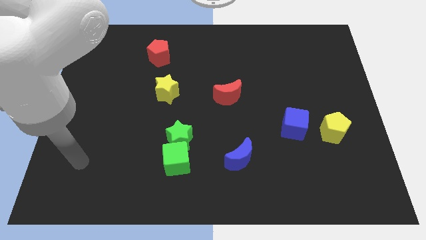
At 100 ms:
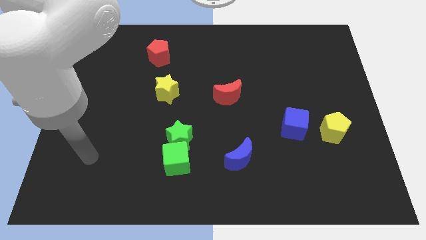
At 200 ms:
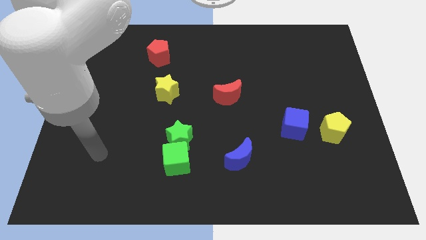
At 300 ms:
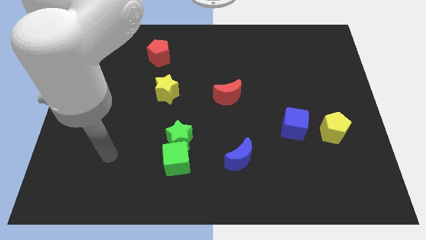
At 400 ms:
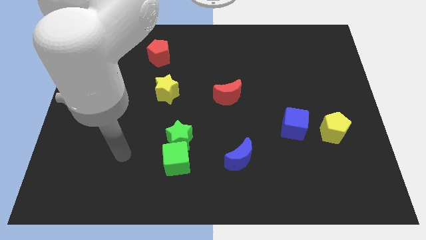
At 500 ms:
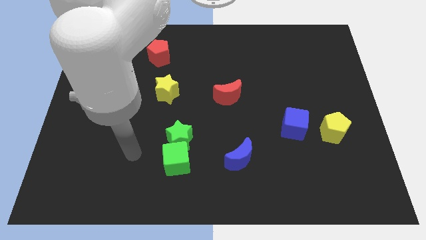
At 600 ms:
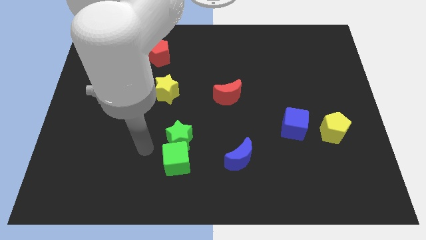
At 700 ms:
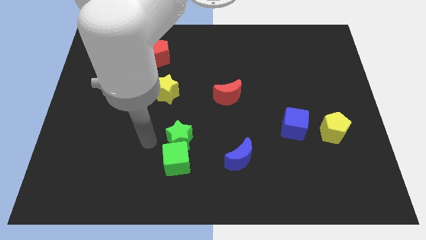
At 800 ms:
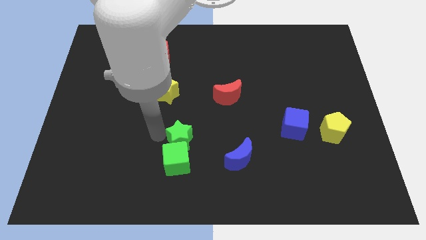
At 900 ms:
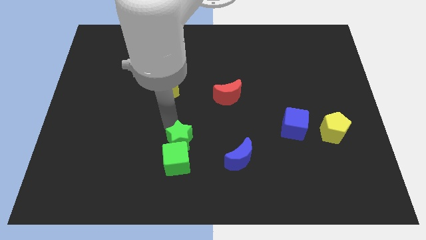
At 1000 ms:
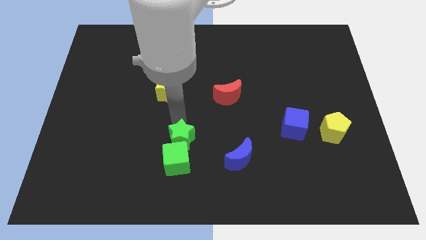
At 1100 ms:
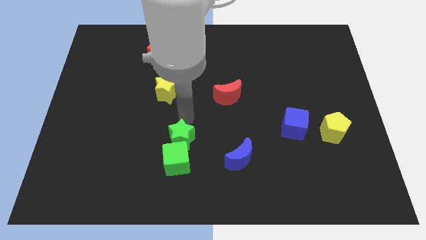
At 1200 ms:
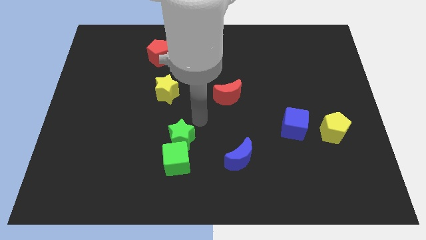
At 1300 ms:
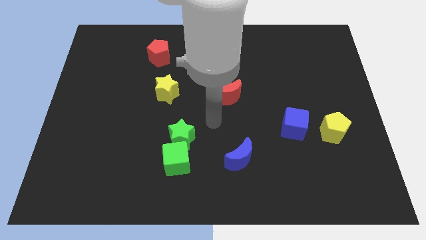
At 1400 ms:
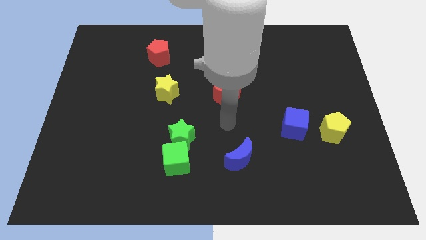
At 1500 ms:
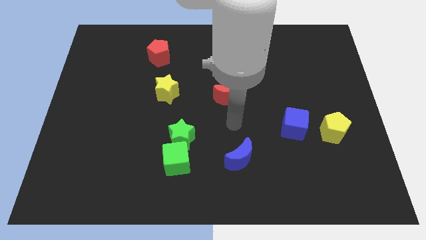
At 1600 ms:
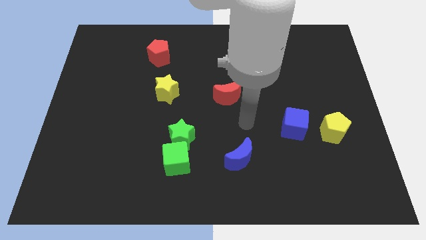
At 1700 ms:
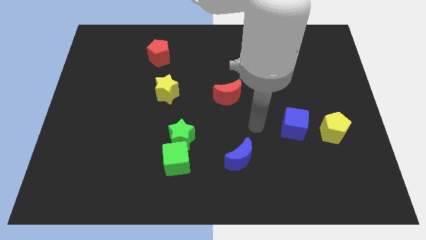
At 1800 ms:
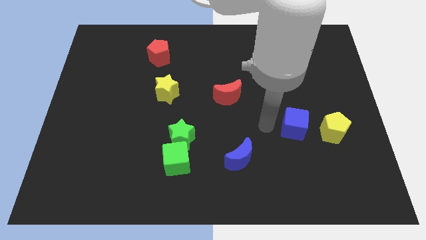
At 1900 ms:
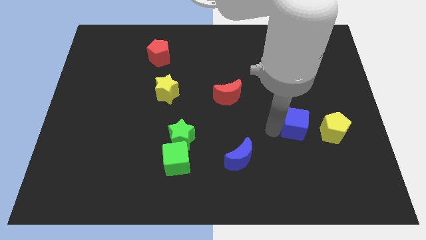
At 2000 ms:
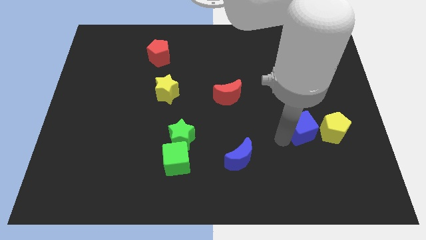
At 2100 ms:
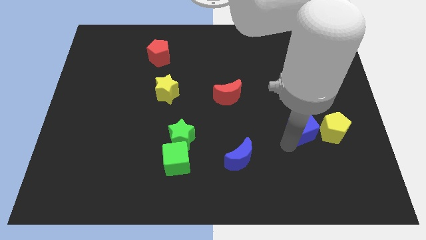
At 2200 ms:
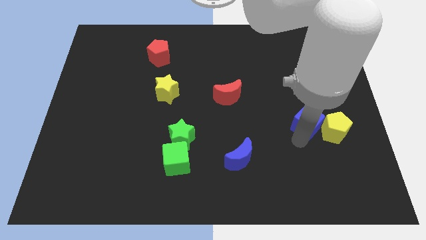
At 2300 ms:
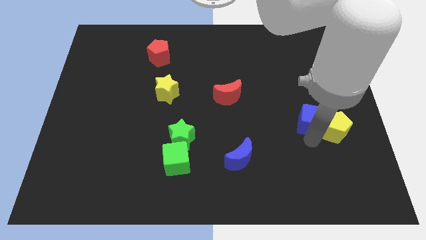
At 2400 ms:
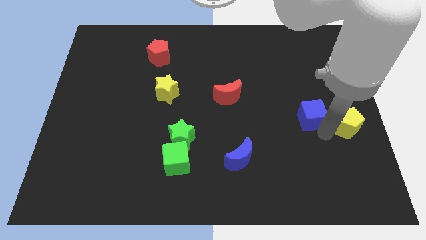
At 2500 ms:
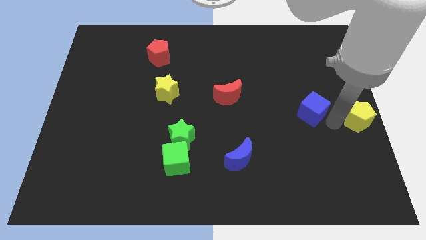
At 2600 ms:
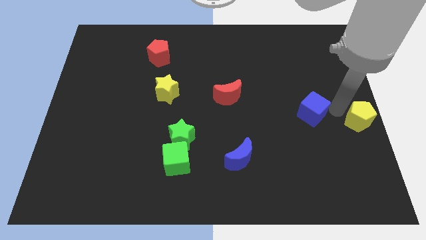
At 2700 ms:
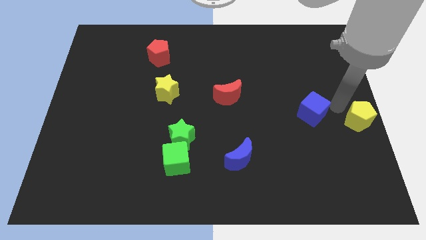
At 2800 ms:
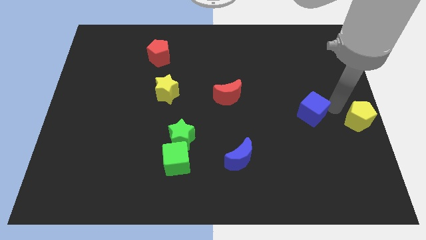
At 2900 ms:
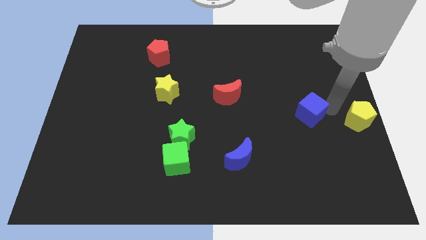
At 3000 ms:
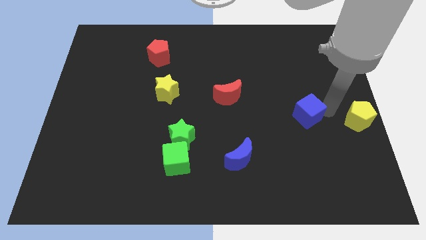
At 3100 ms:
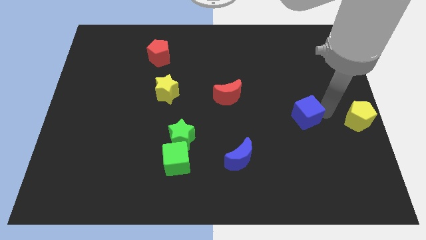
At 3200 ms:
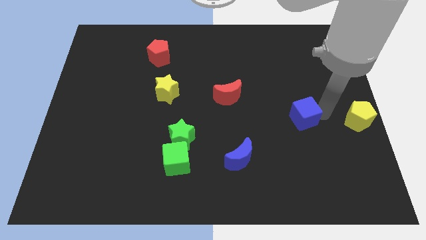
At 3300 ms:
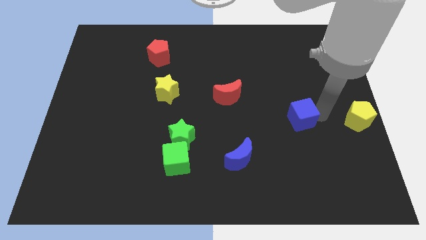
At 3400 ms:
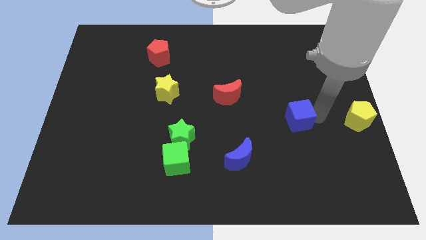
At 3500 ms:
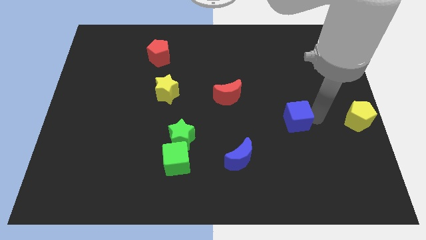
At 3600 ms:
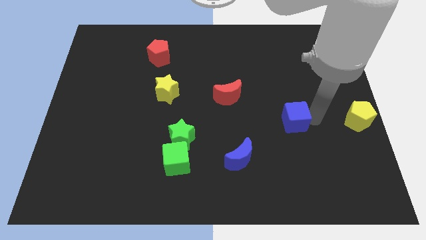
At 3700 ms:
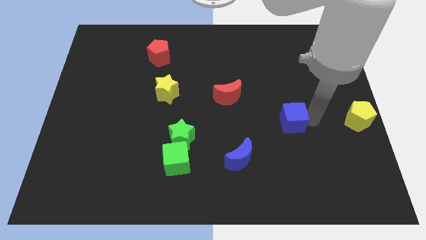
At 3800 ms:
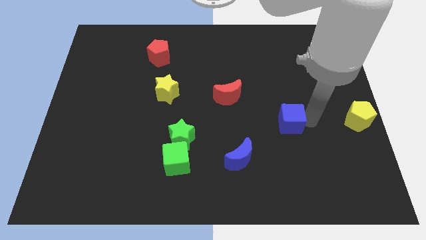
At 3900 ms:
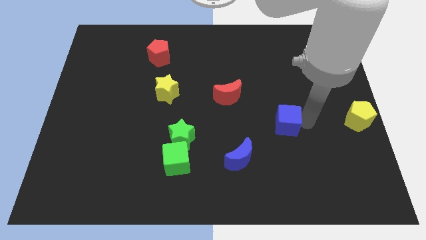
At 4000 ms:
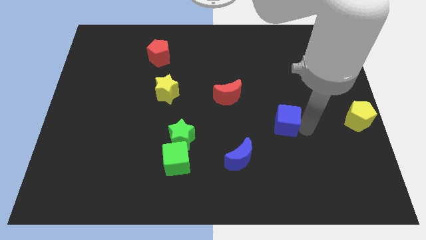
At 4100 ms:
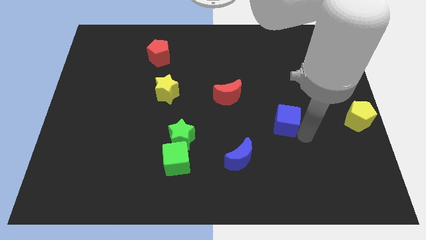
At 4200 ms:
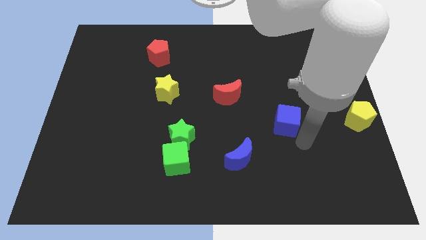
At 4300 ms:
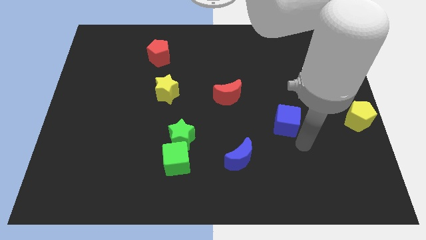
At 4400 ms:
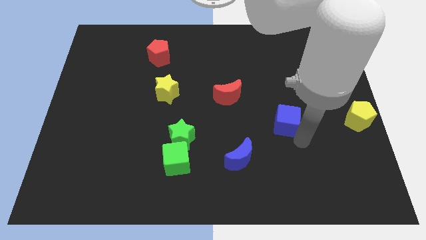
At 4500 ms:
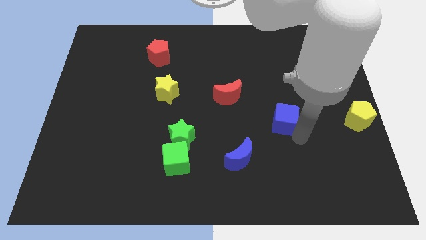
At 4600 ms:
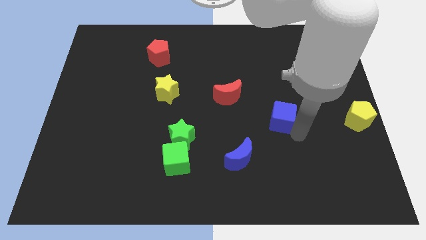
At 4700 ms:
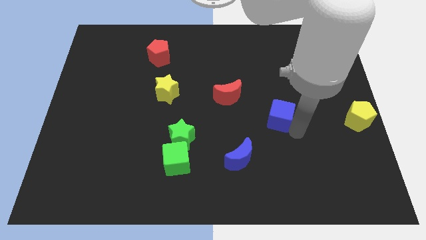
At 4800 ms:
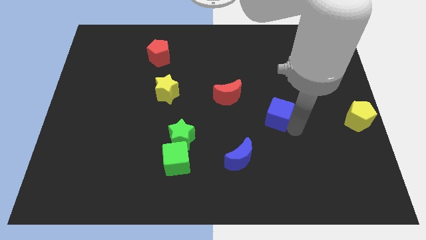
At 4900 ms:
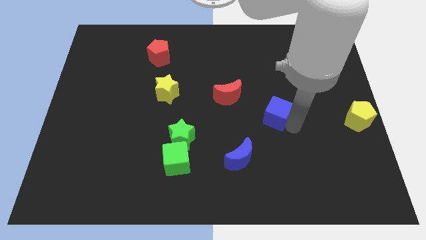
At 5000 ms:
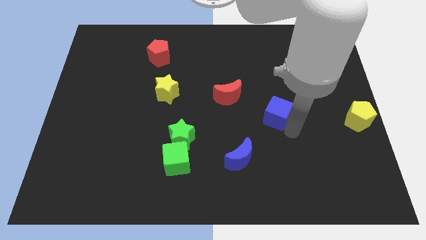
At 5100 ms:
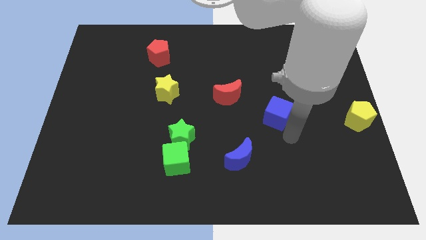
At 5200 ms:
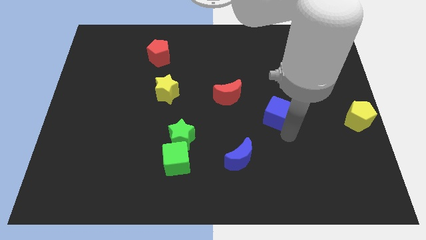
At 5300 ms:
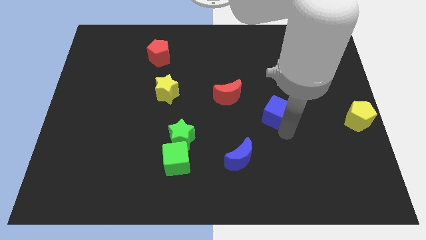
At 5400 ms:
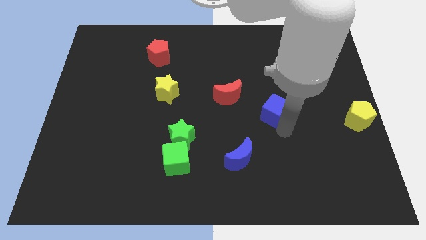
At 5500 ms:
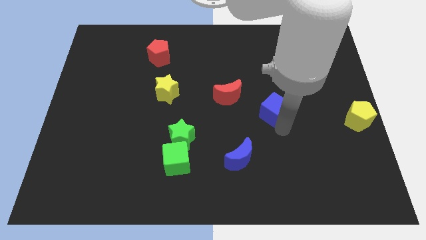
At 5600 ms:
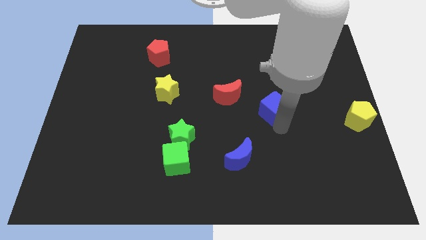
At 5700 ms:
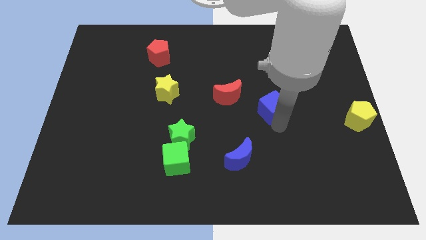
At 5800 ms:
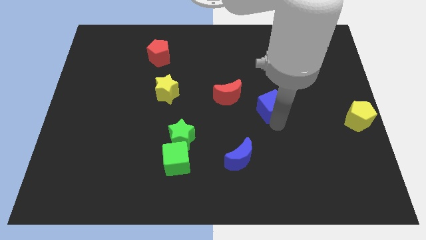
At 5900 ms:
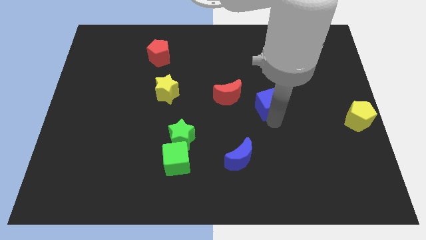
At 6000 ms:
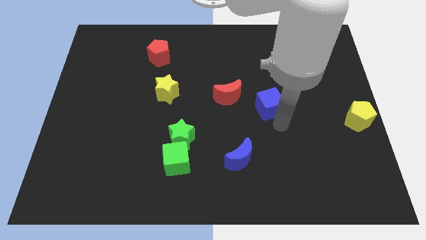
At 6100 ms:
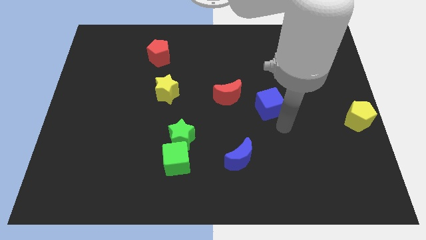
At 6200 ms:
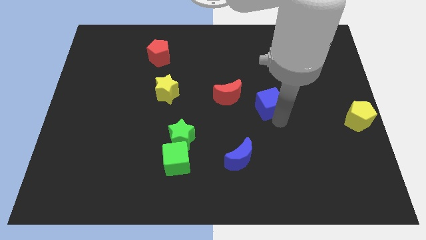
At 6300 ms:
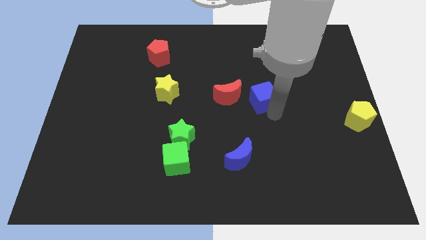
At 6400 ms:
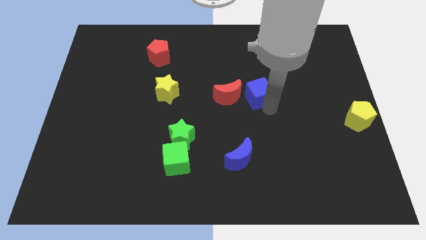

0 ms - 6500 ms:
push the blue cube to the top right side of the red moon
